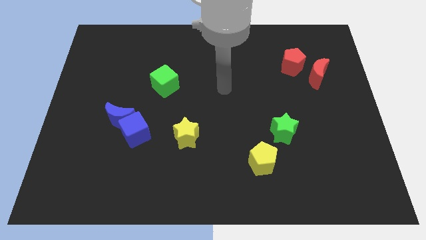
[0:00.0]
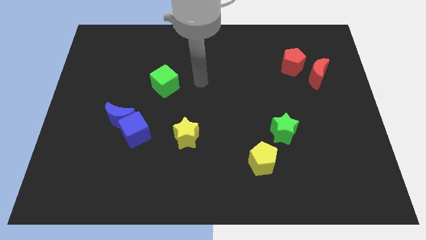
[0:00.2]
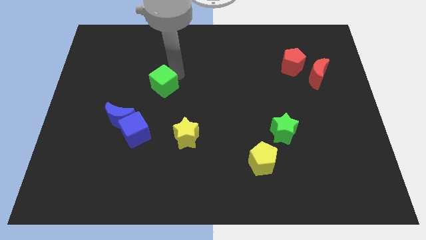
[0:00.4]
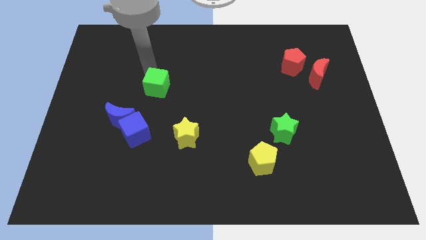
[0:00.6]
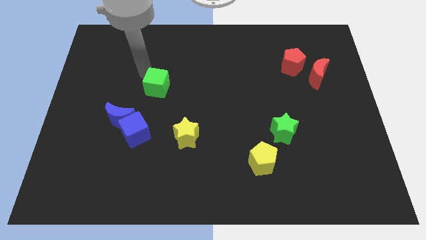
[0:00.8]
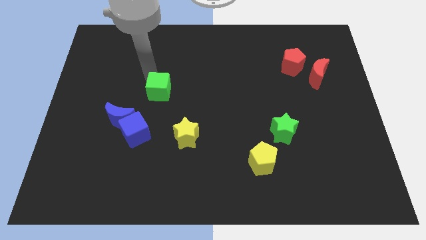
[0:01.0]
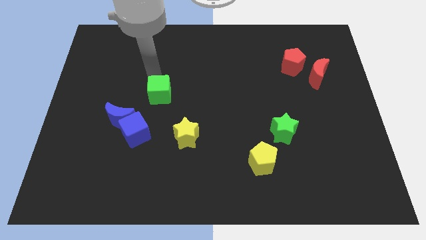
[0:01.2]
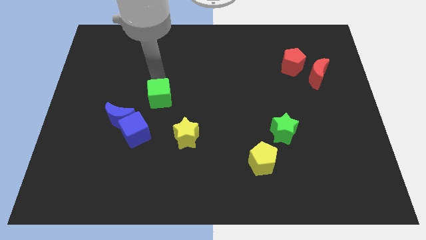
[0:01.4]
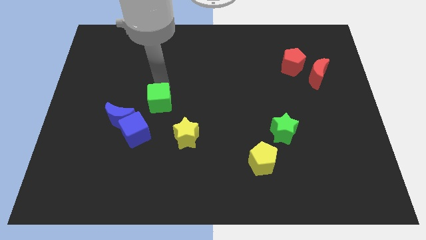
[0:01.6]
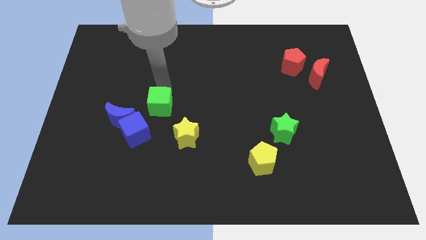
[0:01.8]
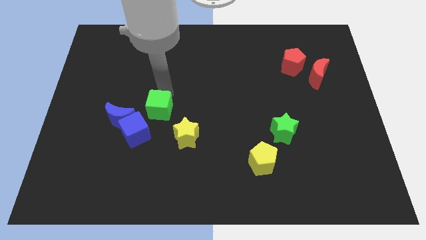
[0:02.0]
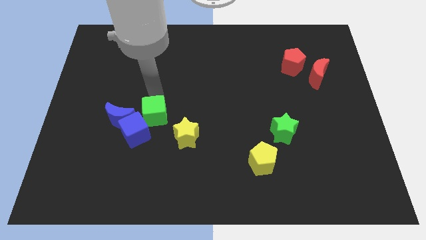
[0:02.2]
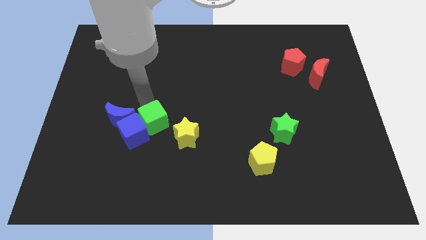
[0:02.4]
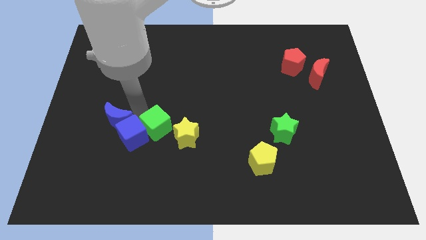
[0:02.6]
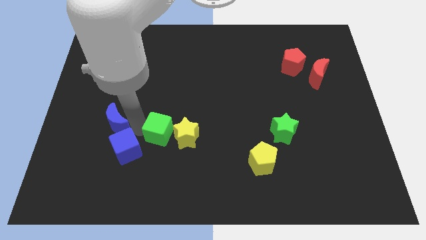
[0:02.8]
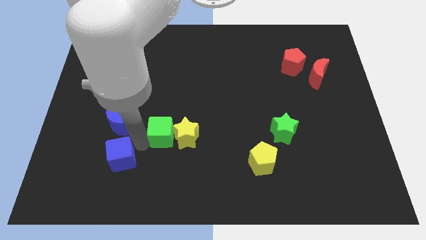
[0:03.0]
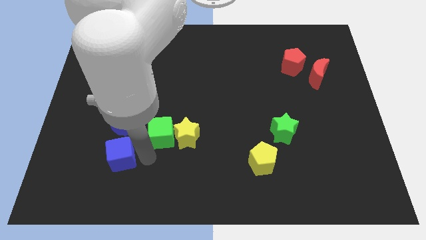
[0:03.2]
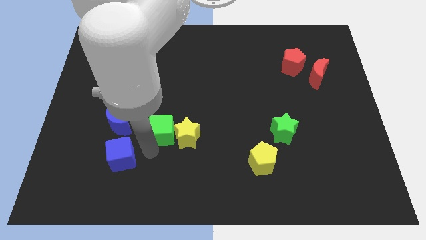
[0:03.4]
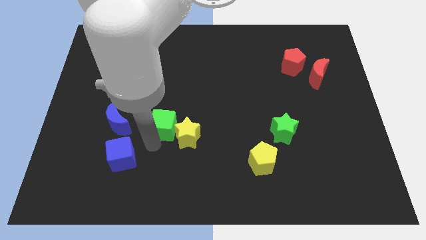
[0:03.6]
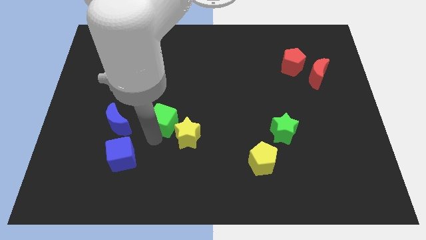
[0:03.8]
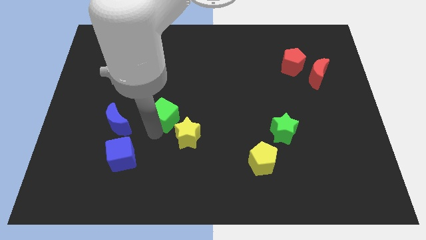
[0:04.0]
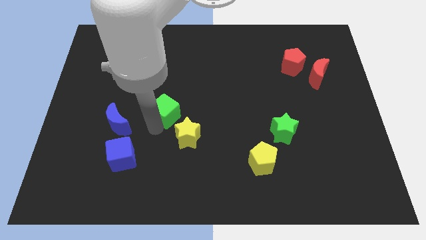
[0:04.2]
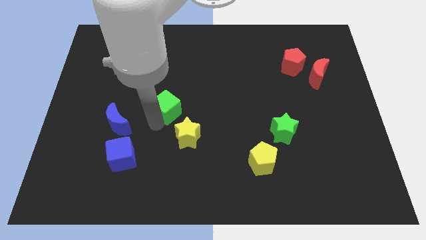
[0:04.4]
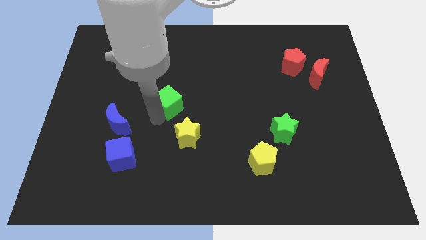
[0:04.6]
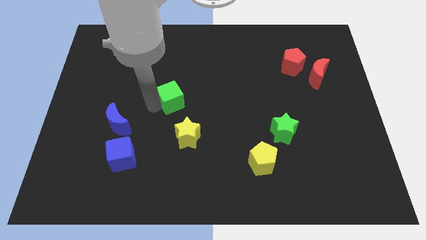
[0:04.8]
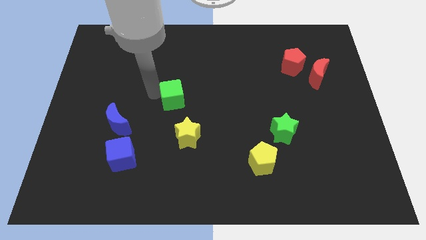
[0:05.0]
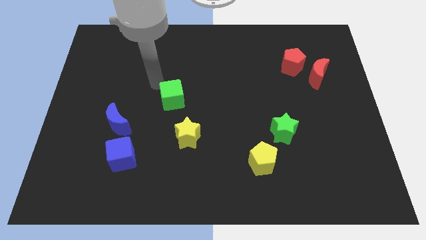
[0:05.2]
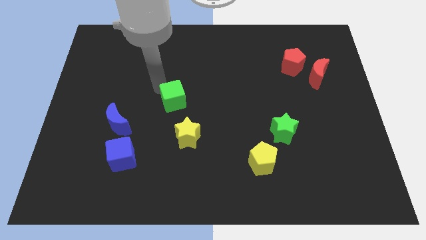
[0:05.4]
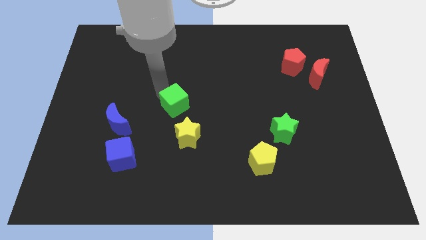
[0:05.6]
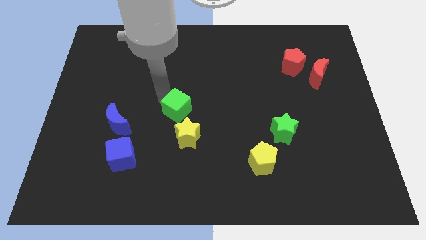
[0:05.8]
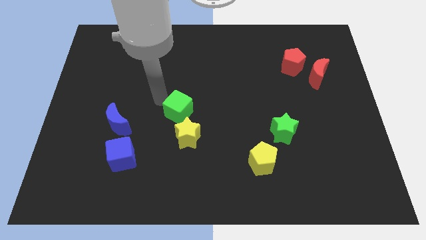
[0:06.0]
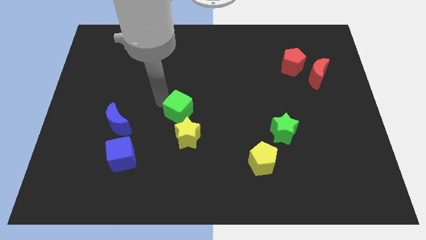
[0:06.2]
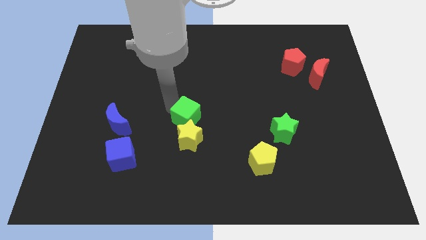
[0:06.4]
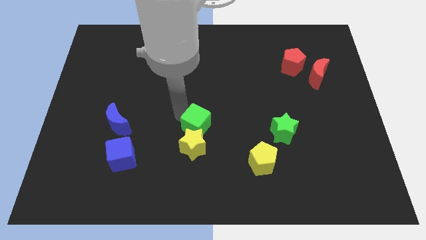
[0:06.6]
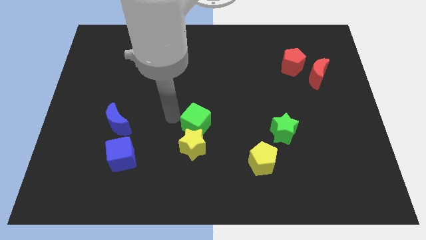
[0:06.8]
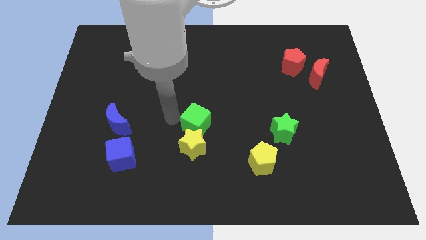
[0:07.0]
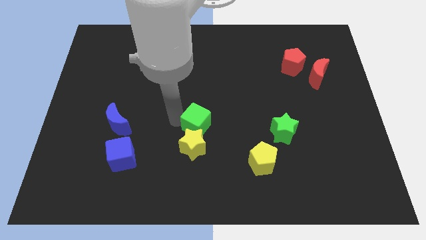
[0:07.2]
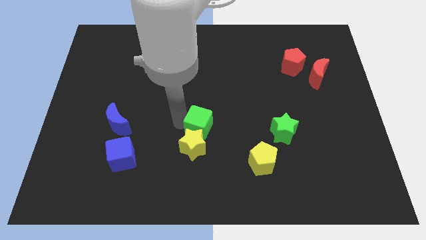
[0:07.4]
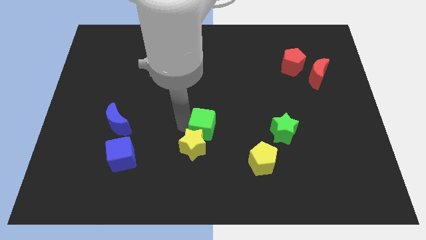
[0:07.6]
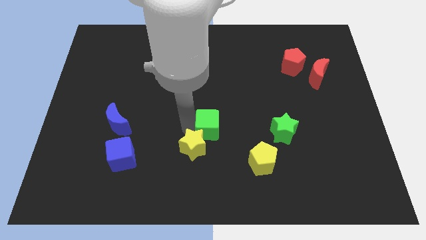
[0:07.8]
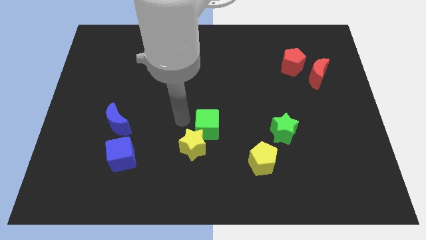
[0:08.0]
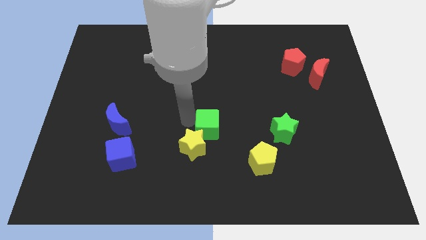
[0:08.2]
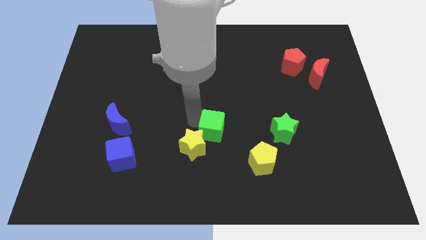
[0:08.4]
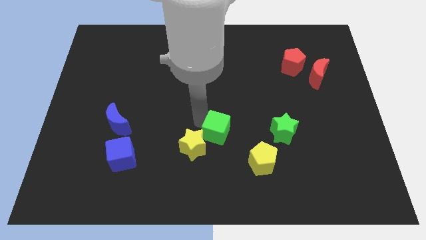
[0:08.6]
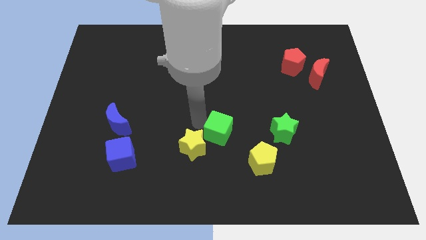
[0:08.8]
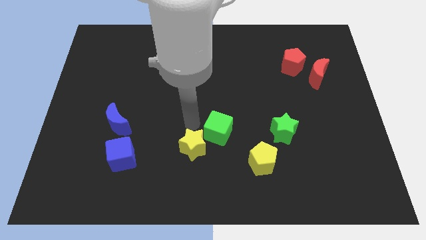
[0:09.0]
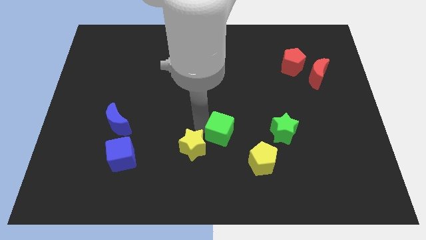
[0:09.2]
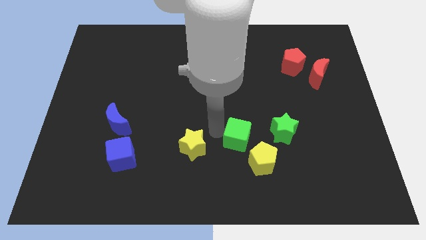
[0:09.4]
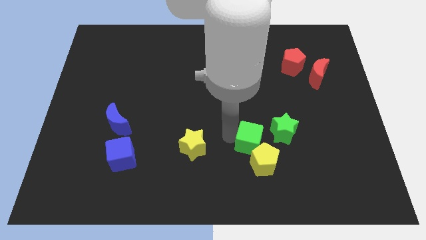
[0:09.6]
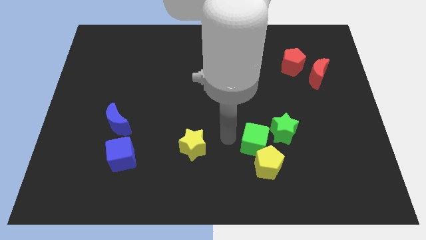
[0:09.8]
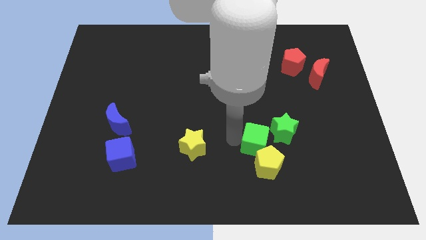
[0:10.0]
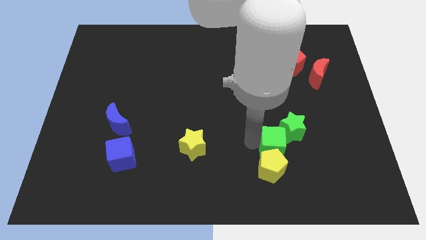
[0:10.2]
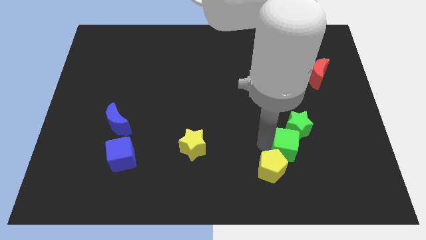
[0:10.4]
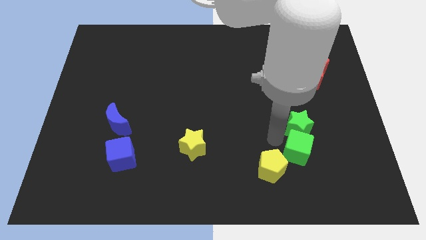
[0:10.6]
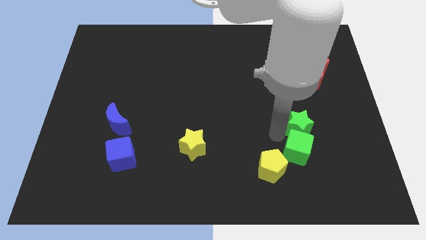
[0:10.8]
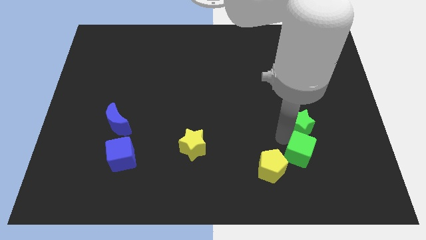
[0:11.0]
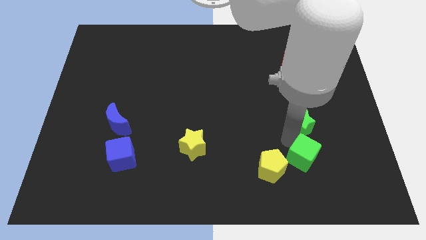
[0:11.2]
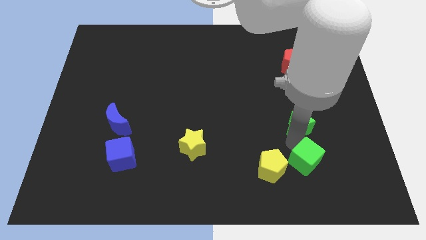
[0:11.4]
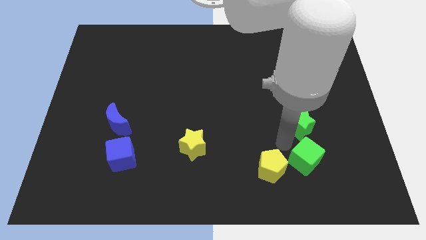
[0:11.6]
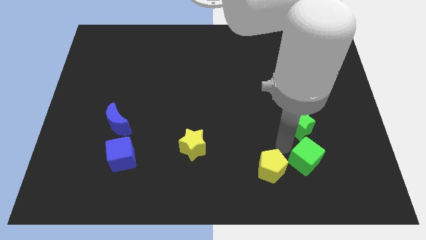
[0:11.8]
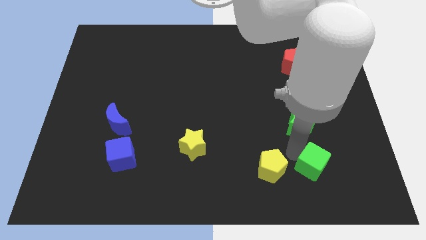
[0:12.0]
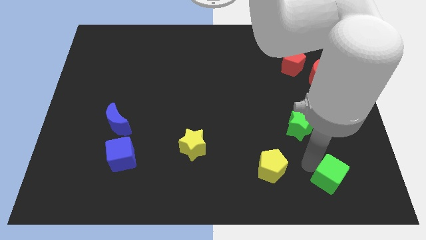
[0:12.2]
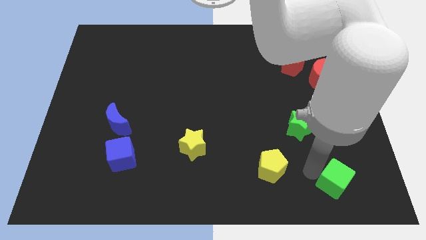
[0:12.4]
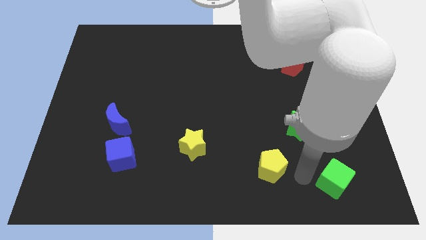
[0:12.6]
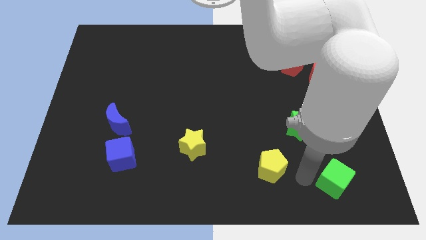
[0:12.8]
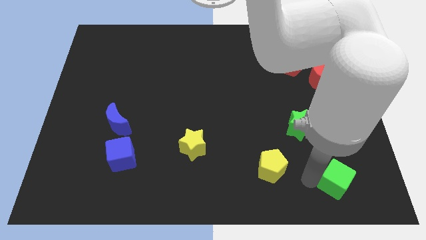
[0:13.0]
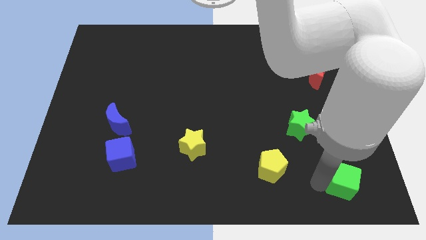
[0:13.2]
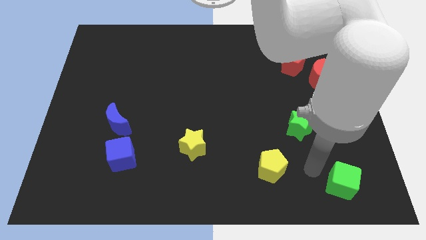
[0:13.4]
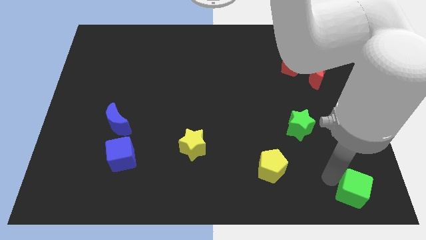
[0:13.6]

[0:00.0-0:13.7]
put the green cube to the bottom right corner
